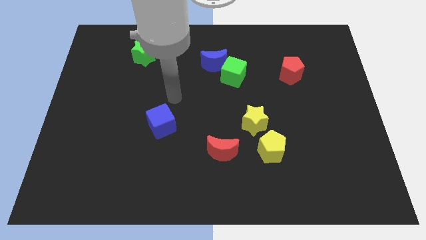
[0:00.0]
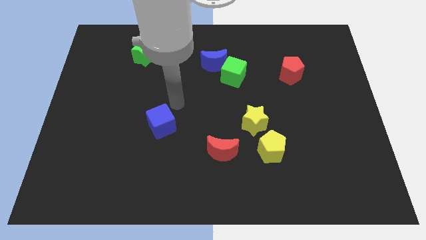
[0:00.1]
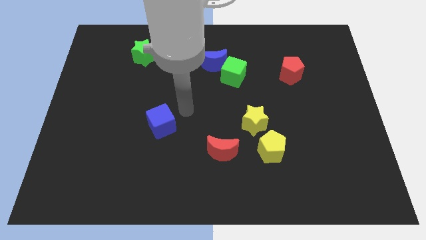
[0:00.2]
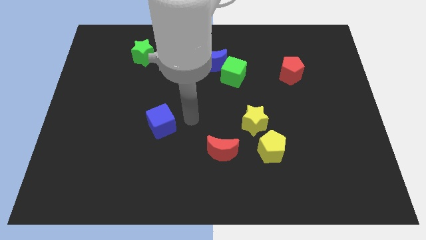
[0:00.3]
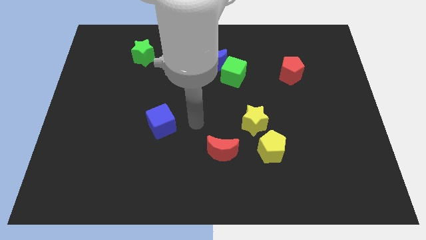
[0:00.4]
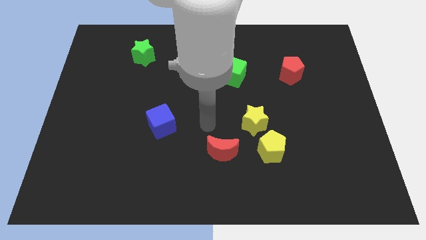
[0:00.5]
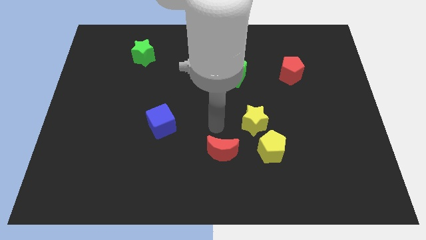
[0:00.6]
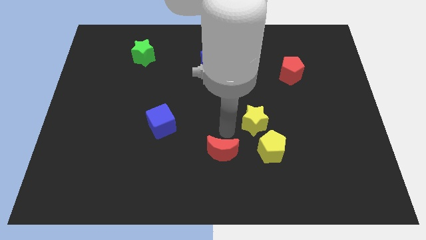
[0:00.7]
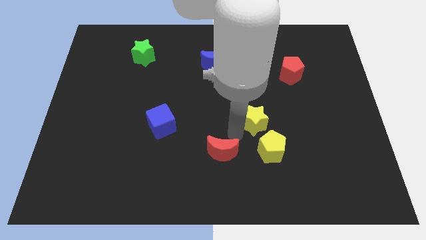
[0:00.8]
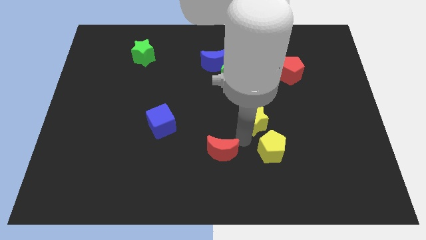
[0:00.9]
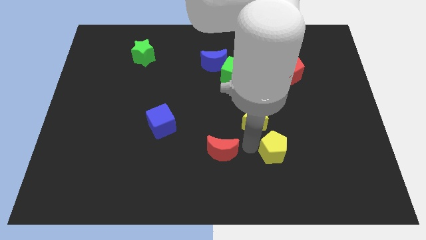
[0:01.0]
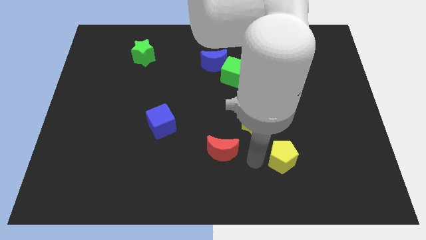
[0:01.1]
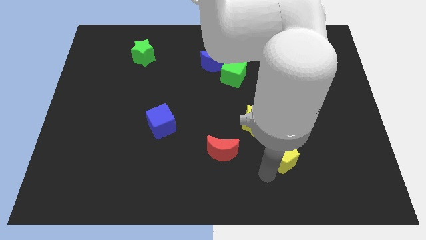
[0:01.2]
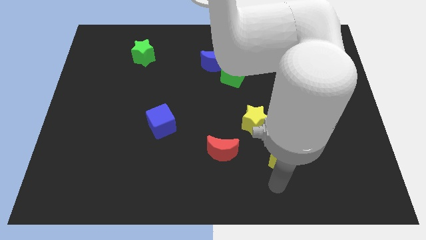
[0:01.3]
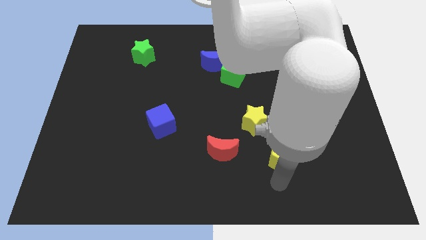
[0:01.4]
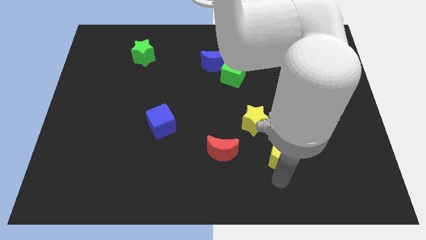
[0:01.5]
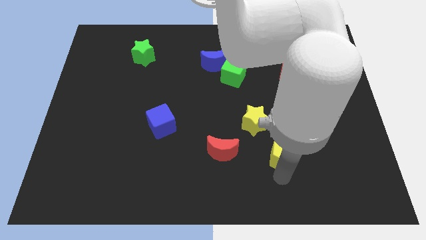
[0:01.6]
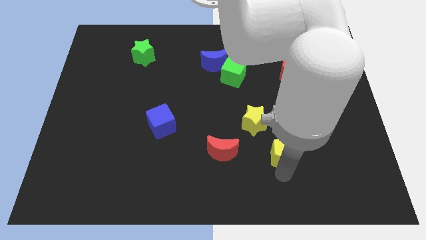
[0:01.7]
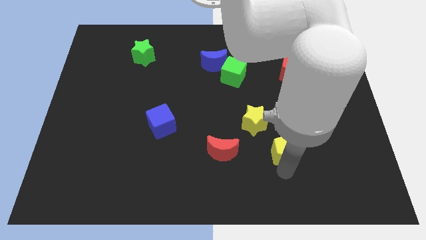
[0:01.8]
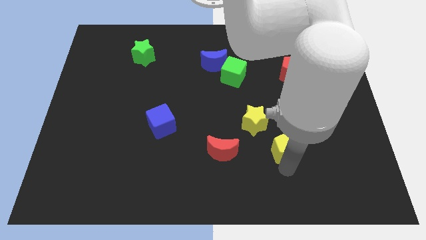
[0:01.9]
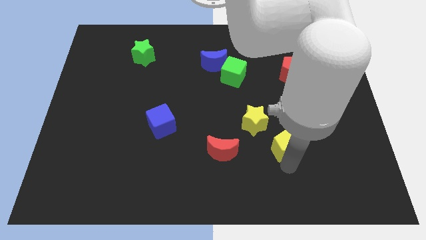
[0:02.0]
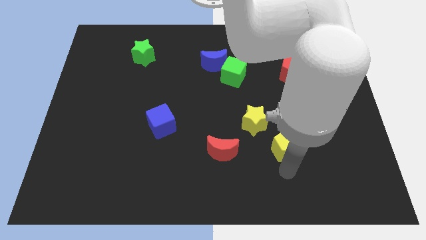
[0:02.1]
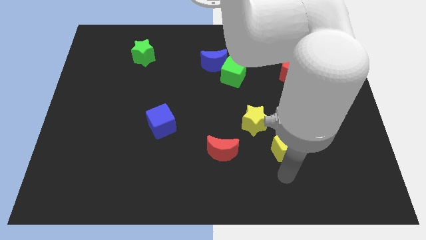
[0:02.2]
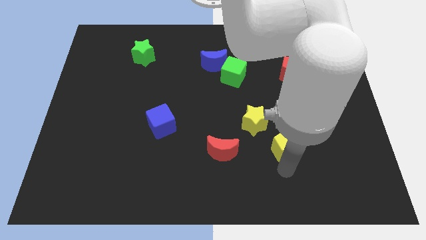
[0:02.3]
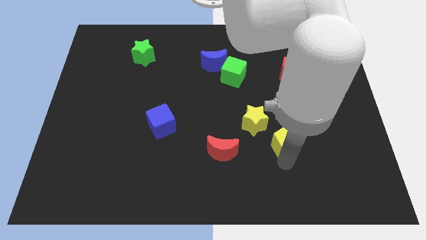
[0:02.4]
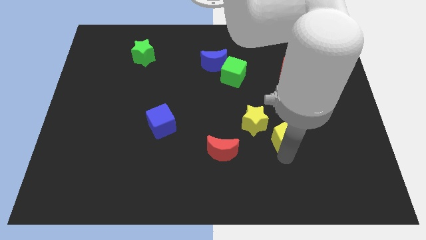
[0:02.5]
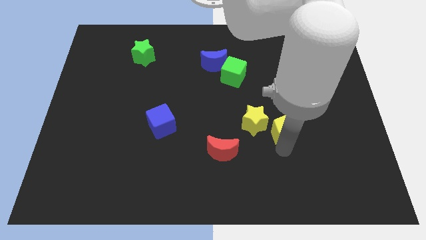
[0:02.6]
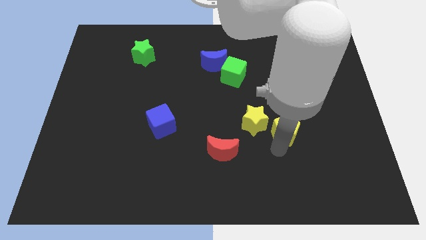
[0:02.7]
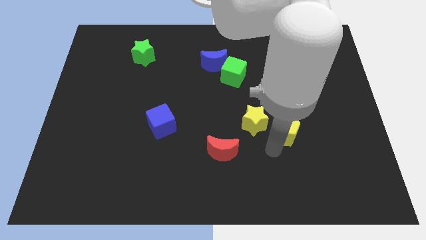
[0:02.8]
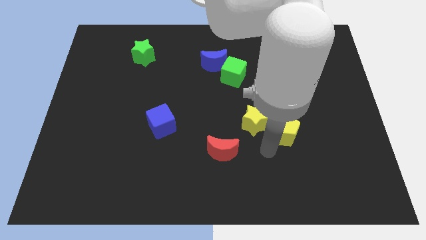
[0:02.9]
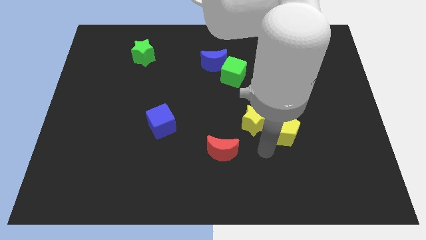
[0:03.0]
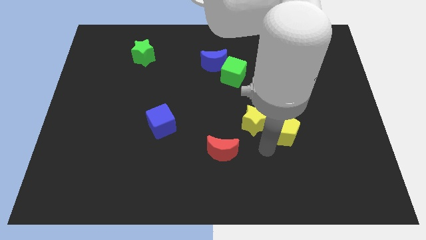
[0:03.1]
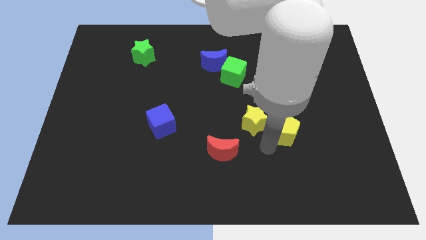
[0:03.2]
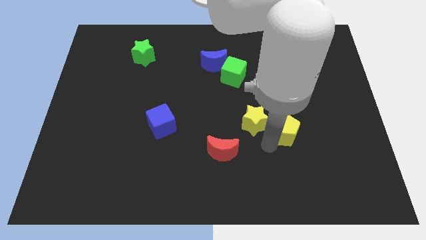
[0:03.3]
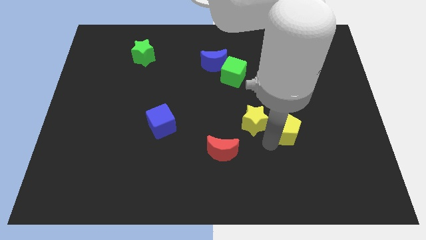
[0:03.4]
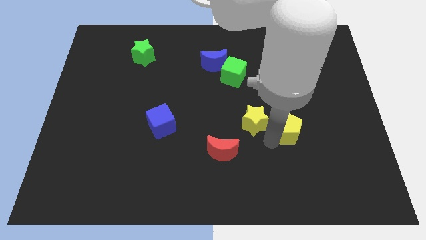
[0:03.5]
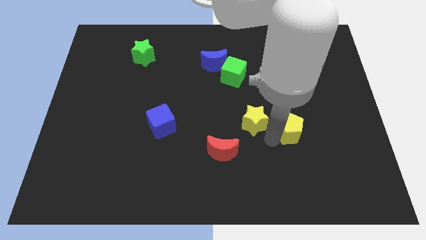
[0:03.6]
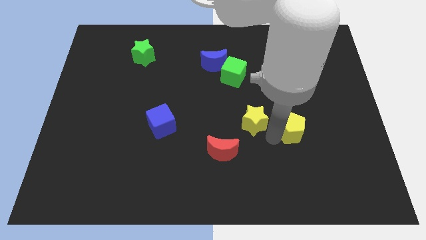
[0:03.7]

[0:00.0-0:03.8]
push the yellow pentagon upwards and right a little

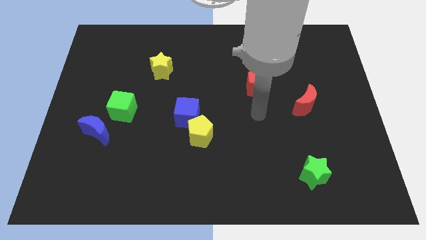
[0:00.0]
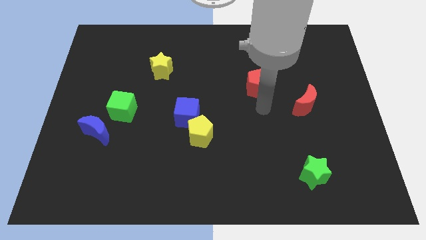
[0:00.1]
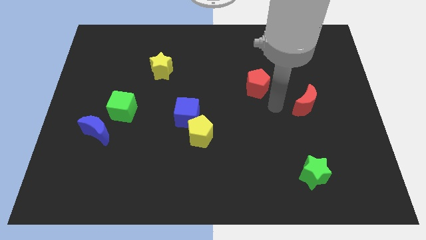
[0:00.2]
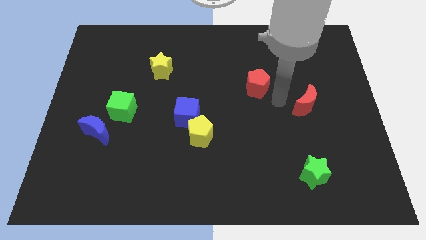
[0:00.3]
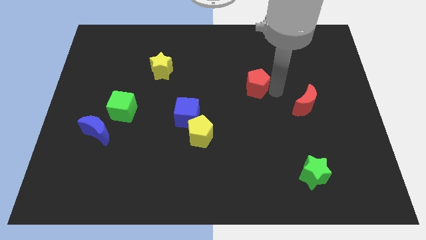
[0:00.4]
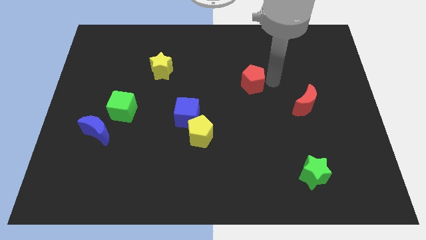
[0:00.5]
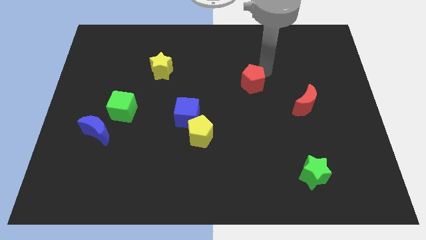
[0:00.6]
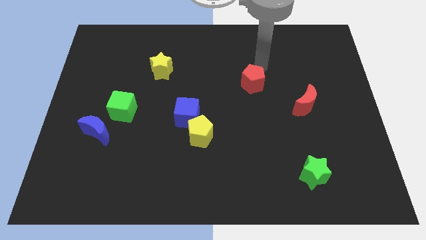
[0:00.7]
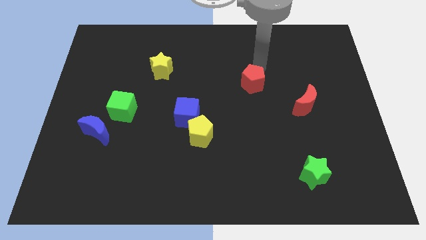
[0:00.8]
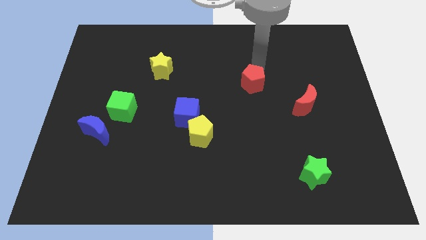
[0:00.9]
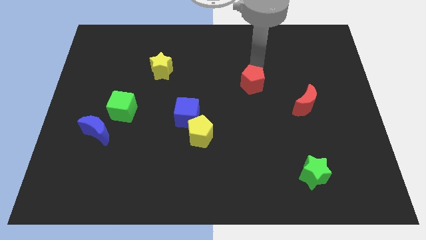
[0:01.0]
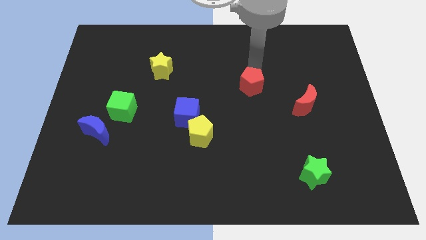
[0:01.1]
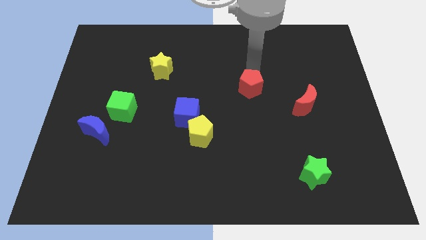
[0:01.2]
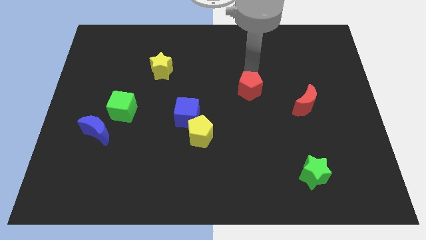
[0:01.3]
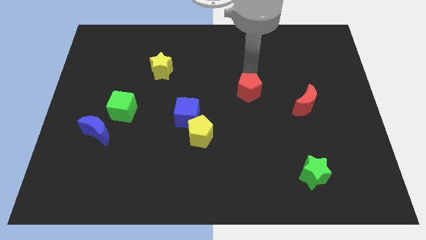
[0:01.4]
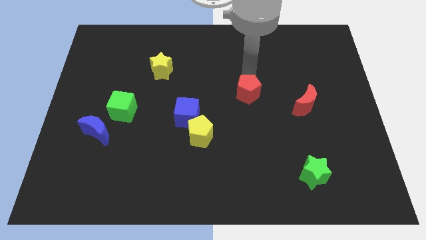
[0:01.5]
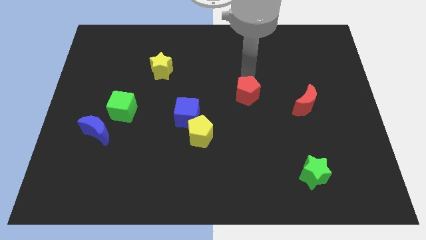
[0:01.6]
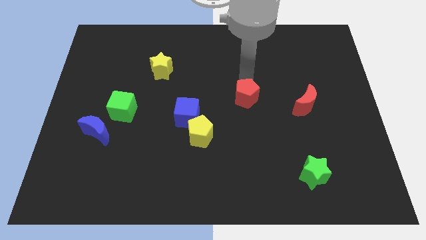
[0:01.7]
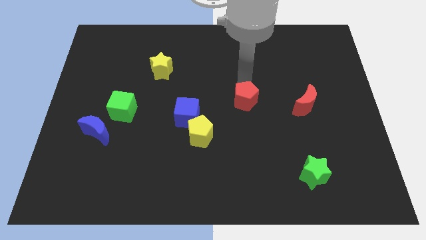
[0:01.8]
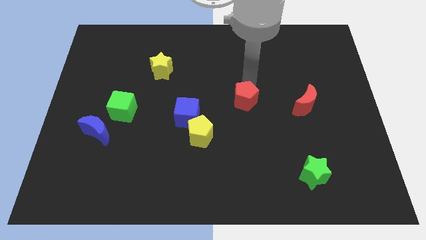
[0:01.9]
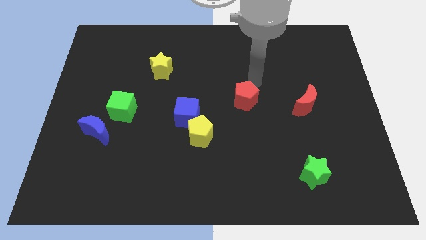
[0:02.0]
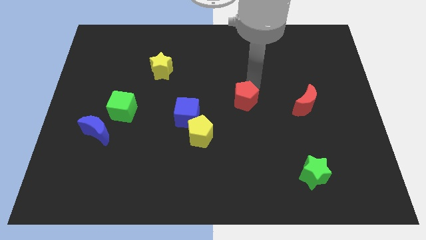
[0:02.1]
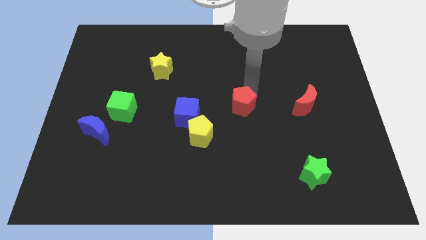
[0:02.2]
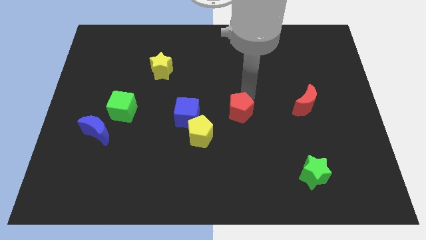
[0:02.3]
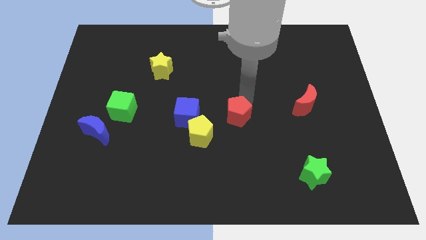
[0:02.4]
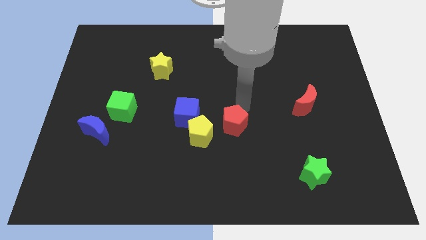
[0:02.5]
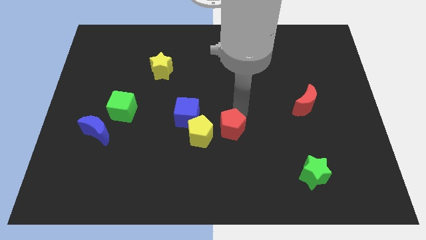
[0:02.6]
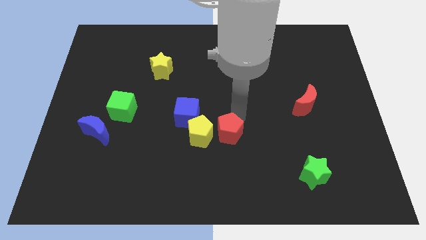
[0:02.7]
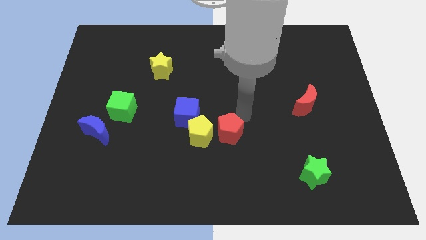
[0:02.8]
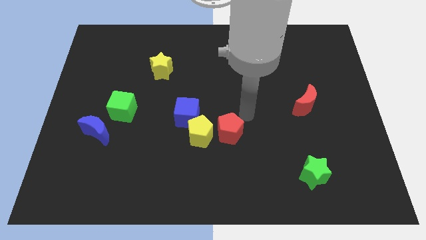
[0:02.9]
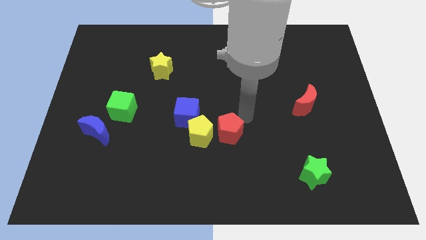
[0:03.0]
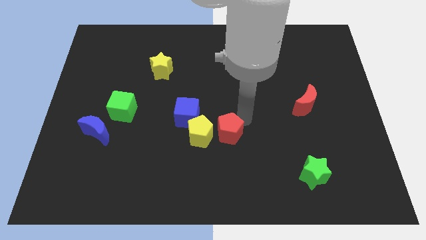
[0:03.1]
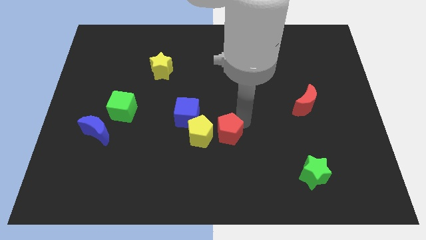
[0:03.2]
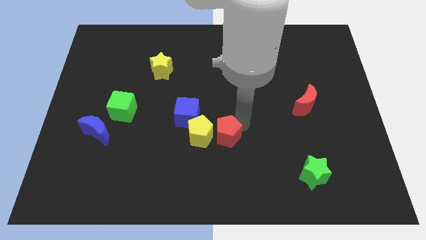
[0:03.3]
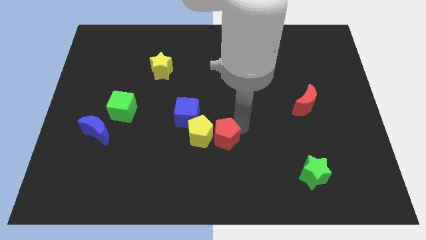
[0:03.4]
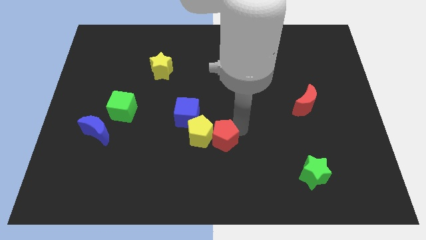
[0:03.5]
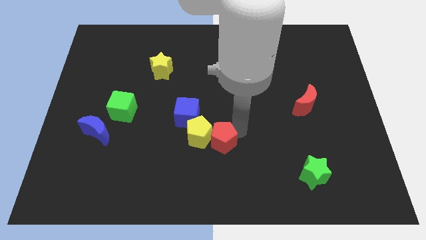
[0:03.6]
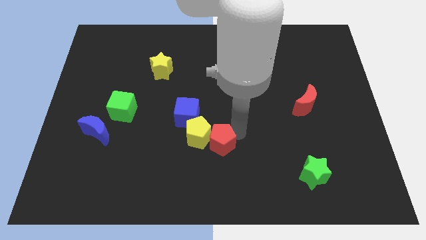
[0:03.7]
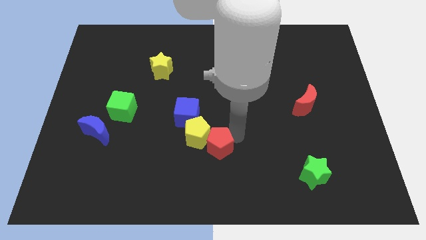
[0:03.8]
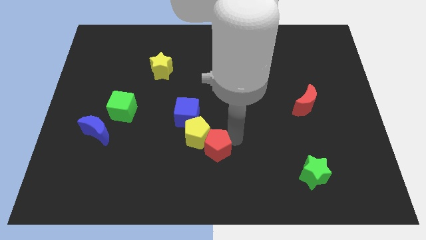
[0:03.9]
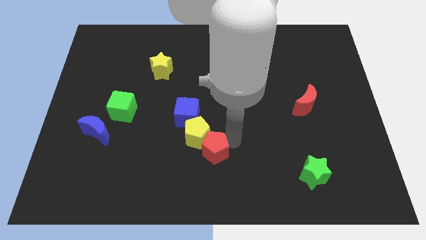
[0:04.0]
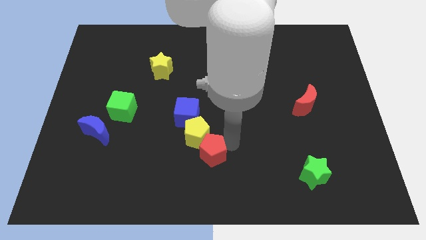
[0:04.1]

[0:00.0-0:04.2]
push the red pentagon diagonally down and left

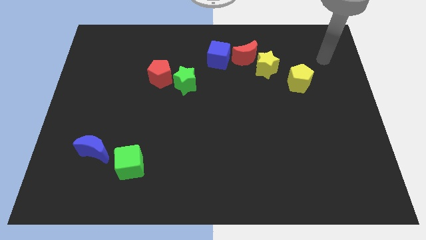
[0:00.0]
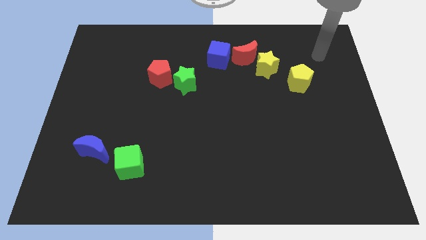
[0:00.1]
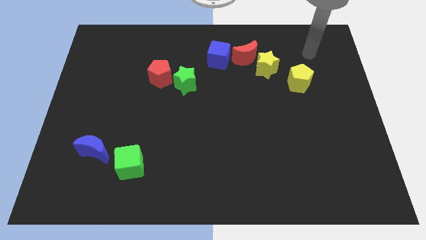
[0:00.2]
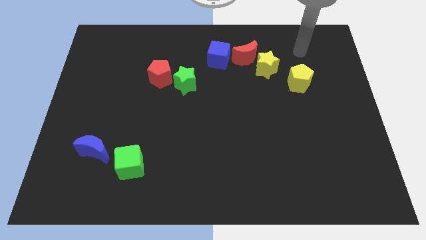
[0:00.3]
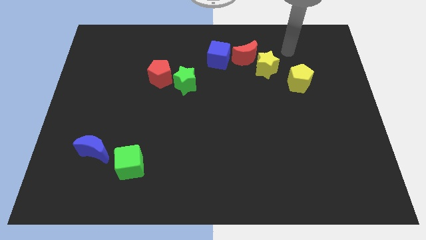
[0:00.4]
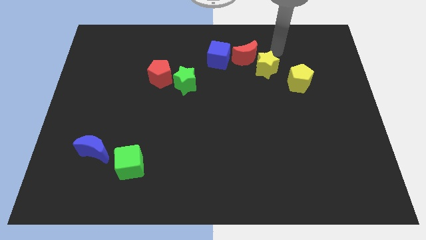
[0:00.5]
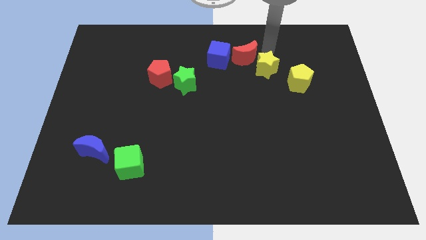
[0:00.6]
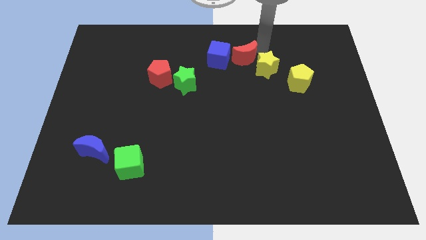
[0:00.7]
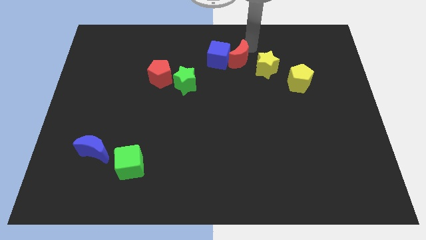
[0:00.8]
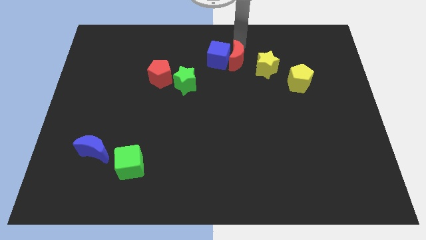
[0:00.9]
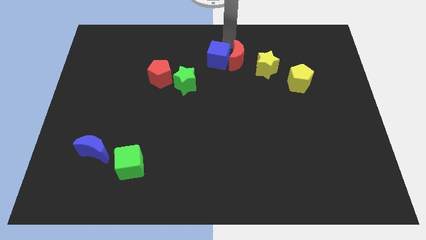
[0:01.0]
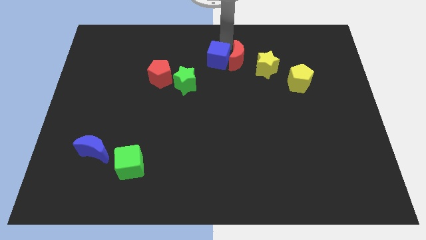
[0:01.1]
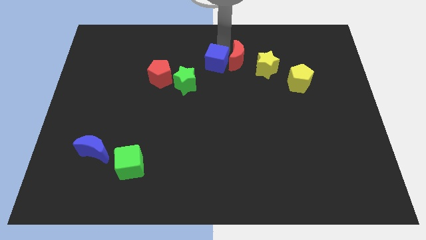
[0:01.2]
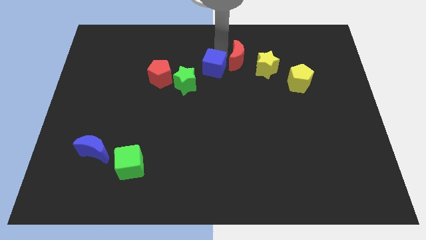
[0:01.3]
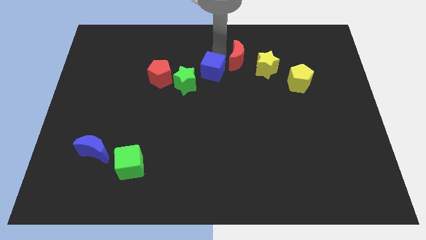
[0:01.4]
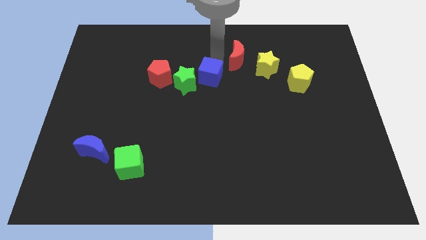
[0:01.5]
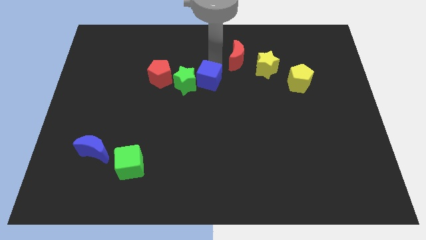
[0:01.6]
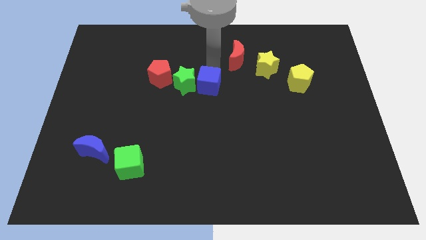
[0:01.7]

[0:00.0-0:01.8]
slightly push the blue cube down and then to the left
